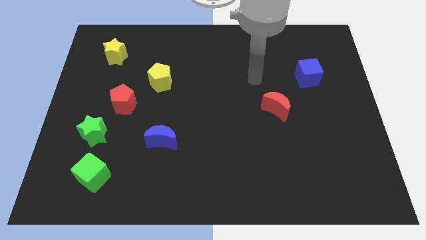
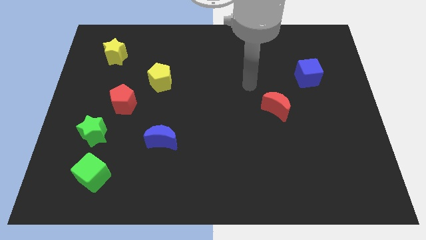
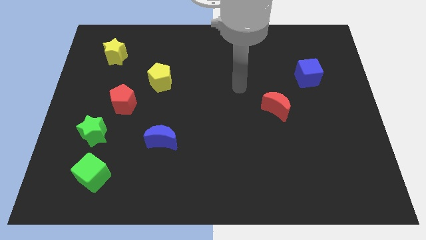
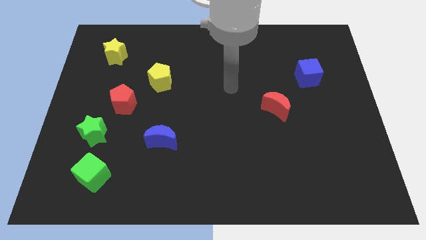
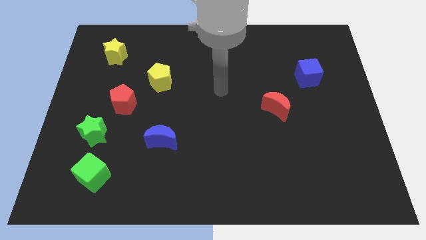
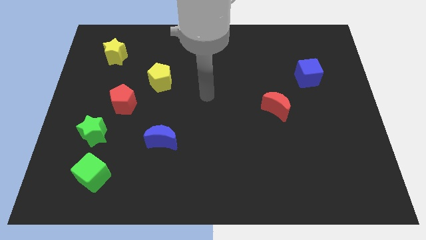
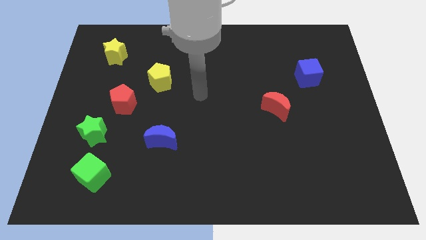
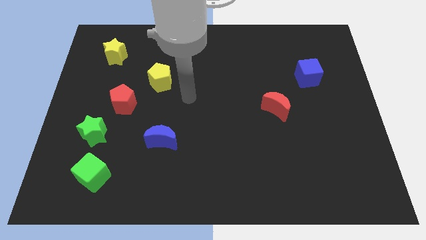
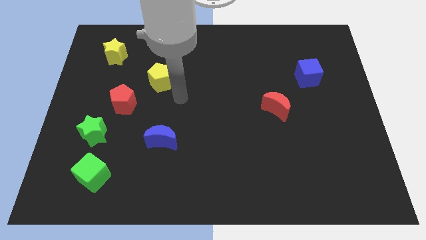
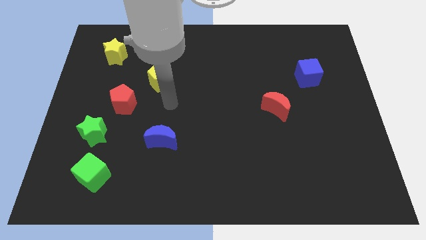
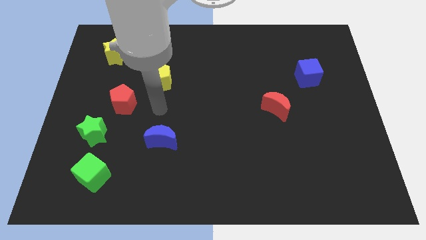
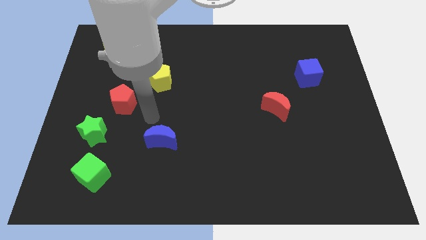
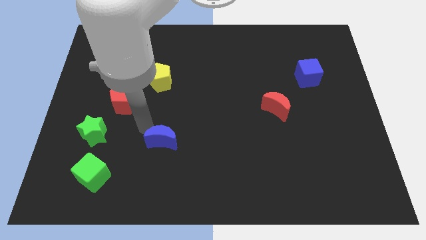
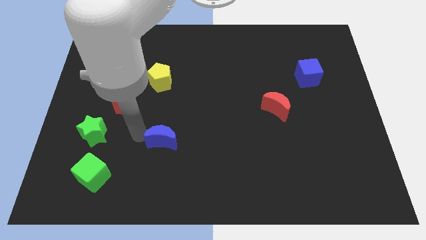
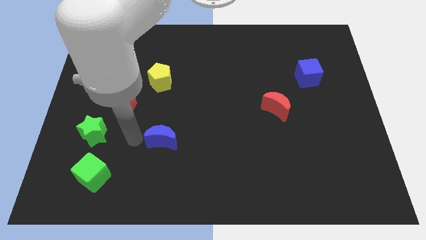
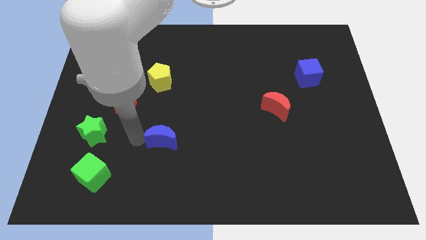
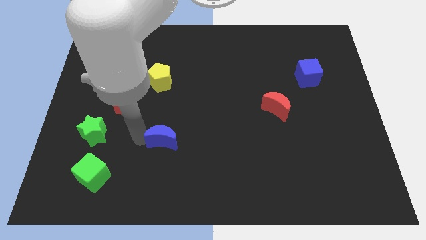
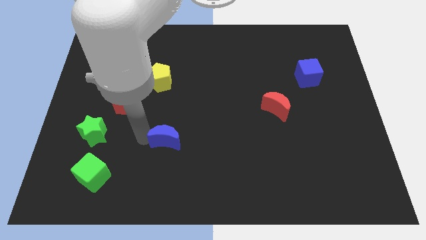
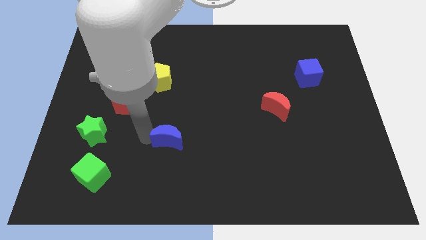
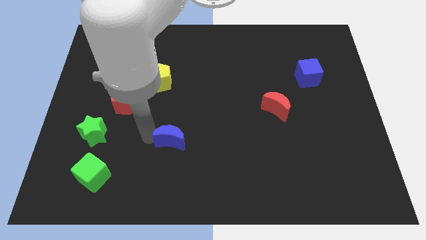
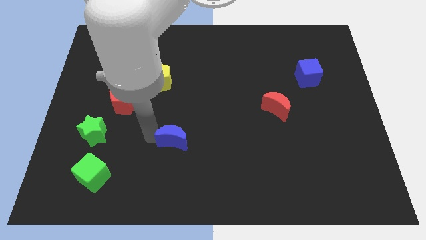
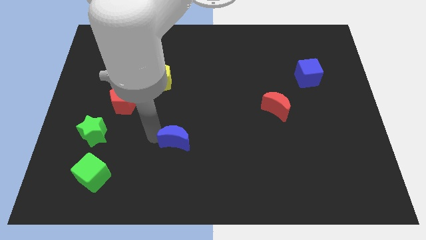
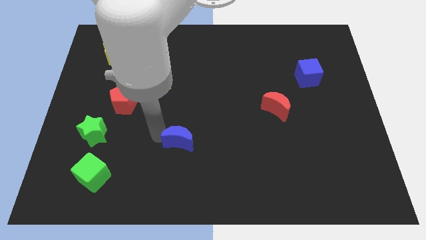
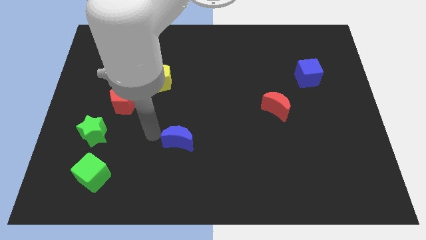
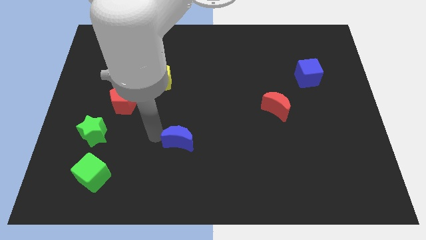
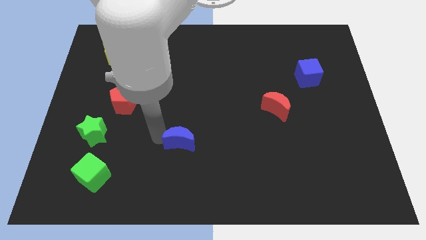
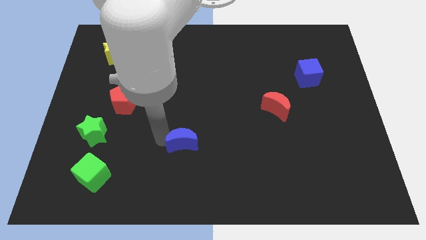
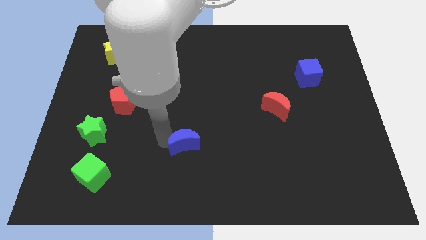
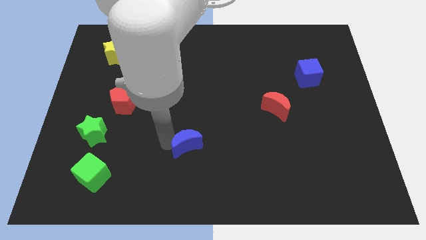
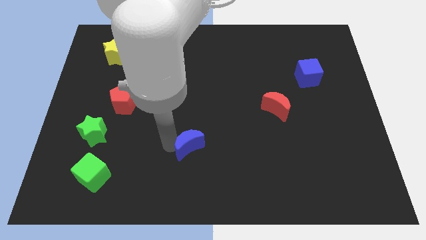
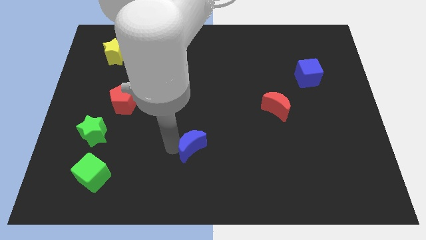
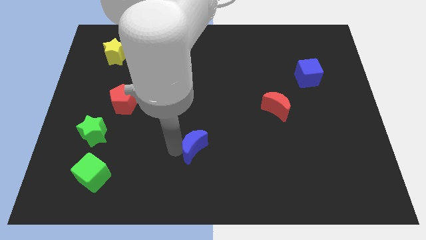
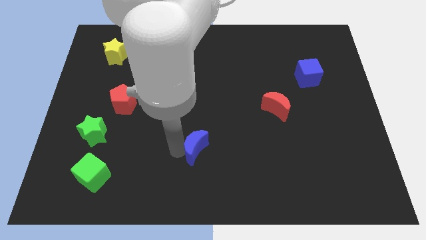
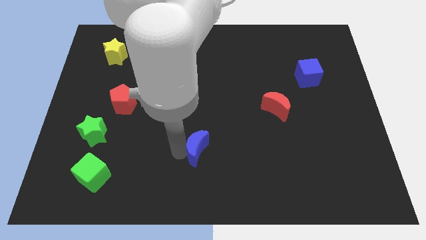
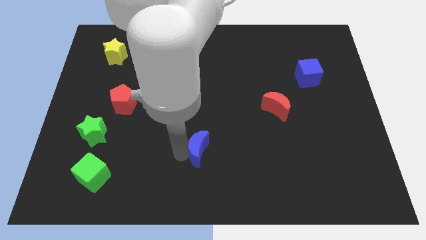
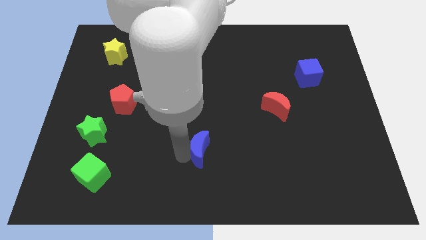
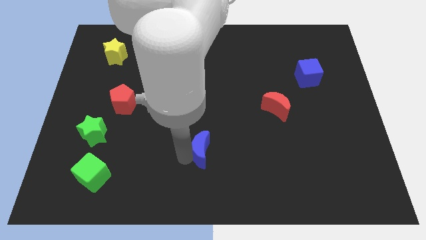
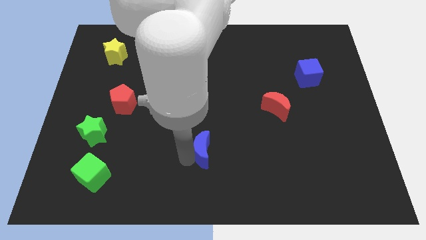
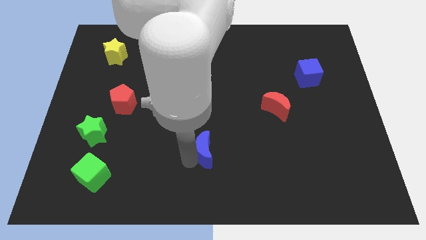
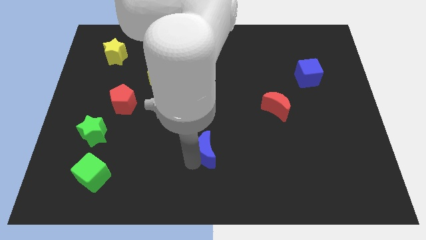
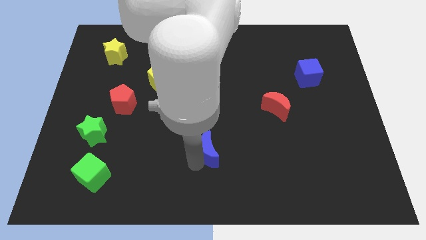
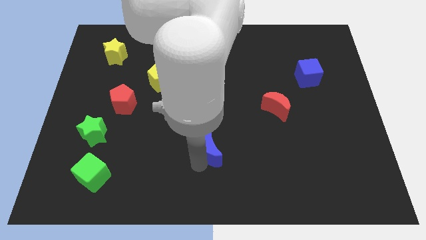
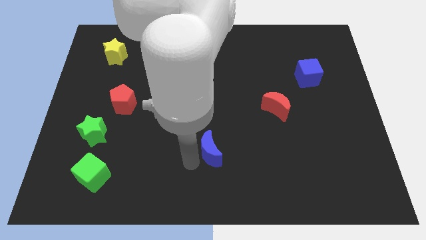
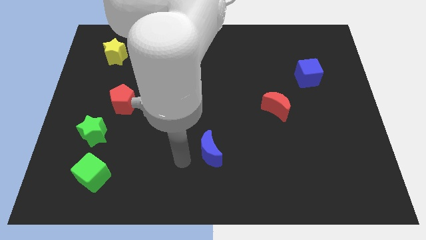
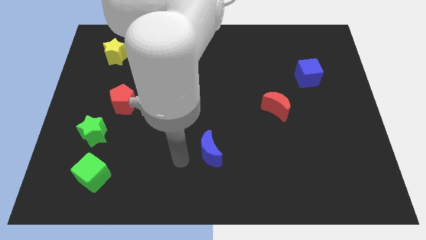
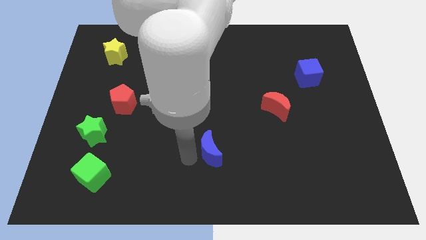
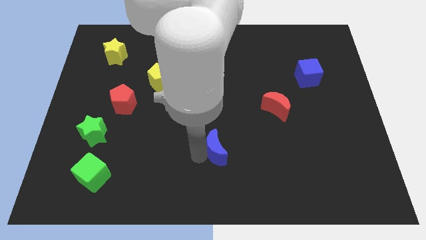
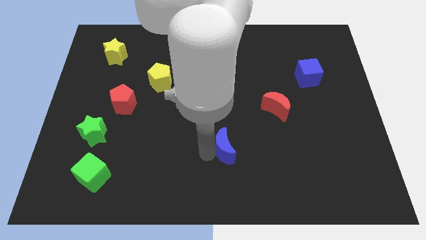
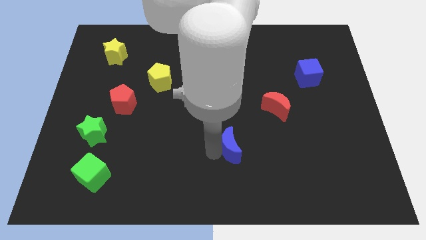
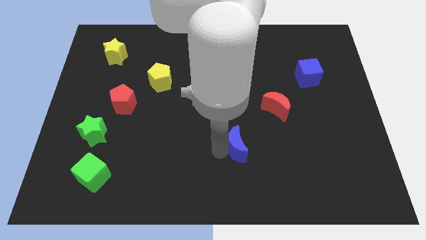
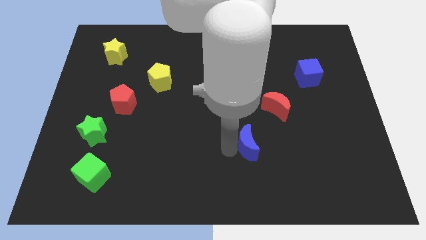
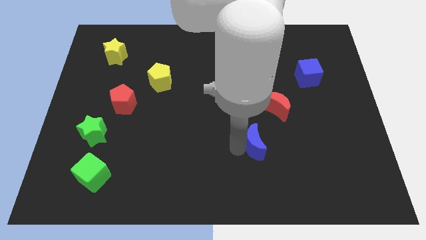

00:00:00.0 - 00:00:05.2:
push the blue moon right

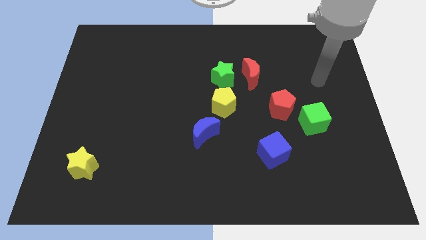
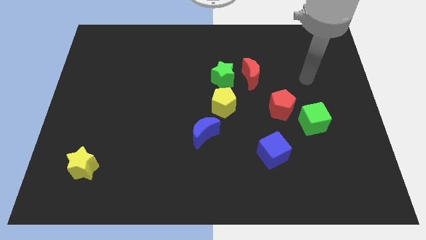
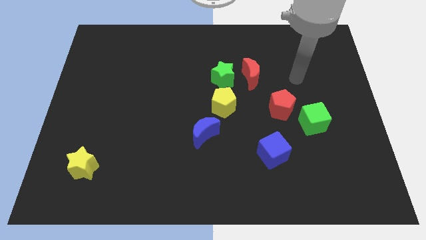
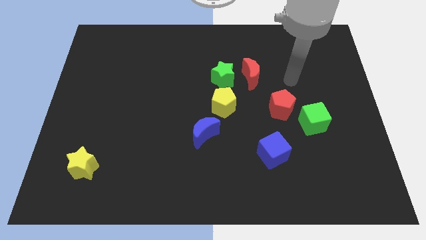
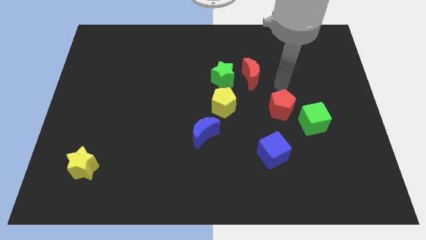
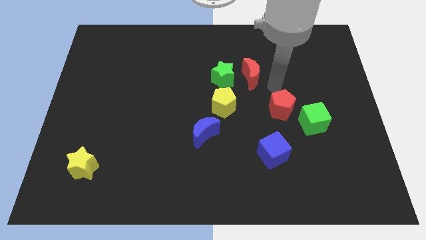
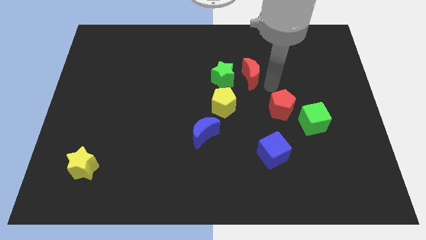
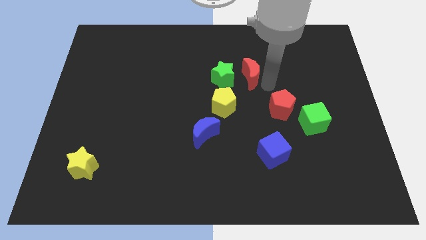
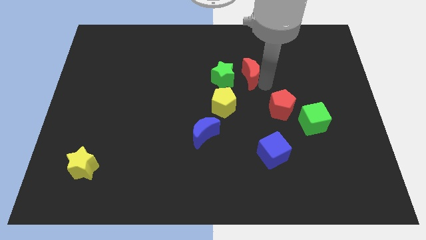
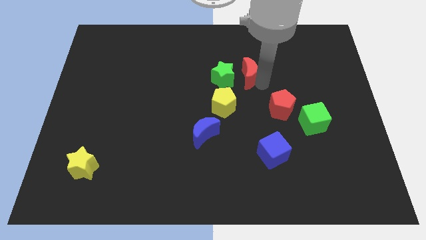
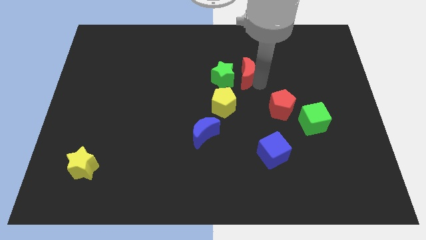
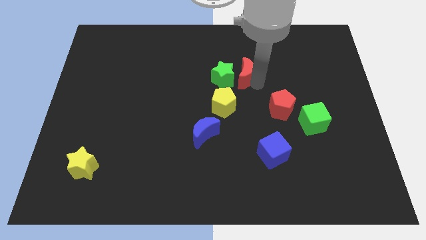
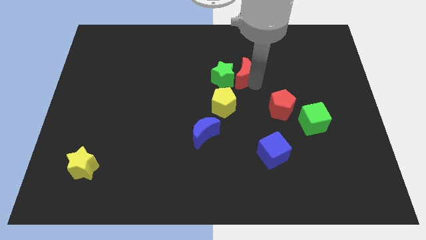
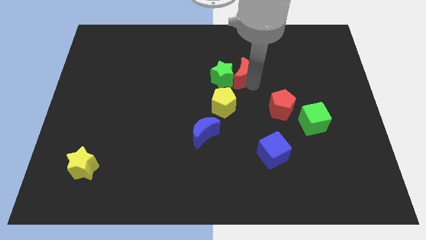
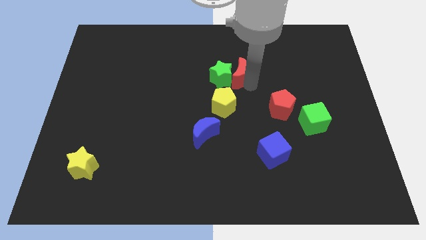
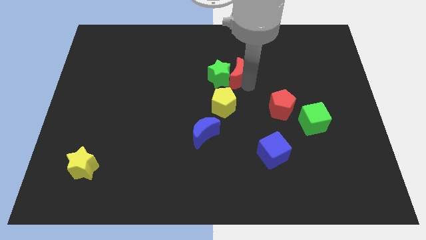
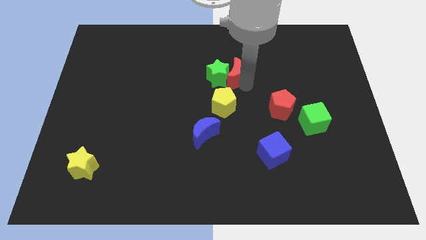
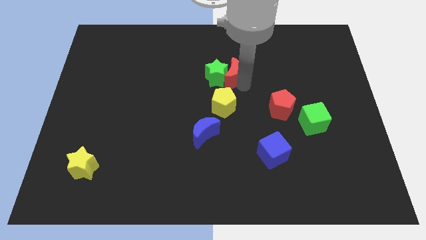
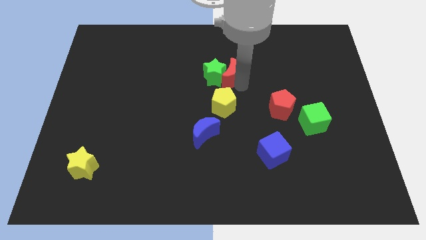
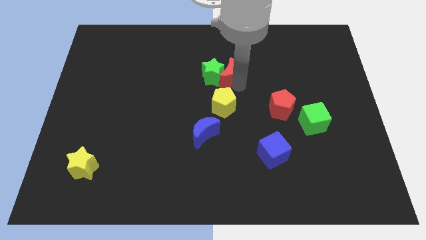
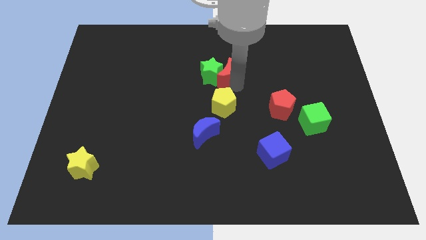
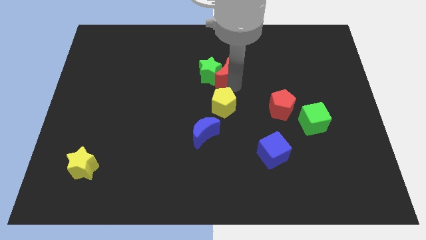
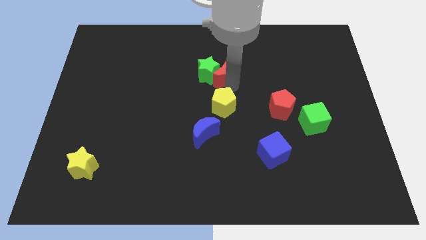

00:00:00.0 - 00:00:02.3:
slightly slide the red moon left

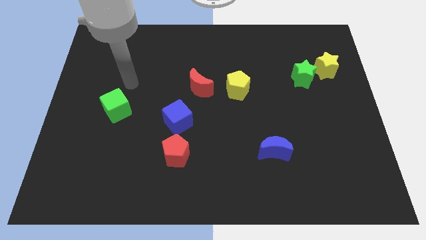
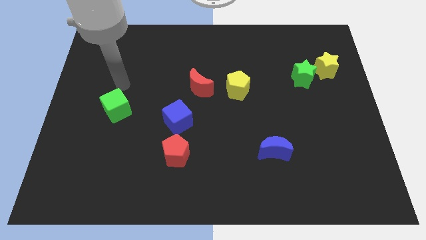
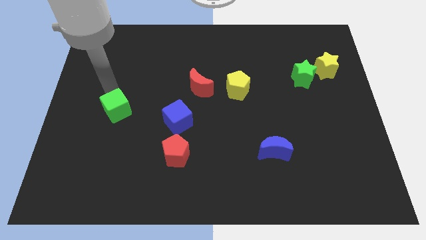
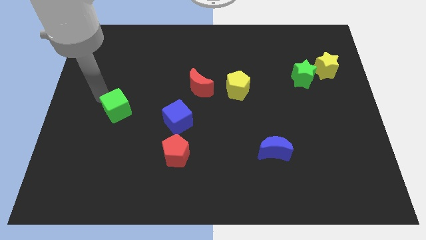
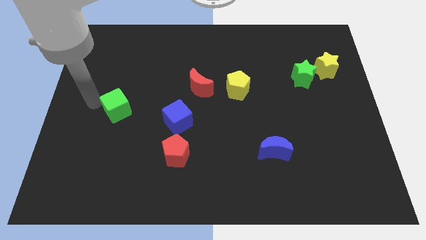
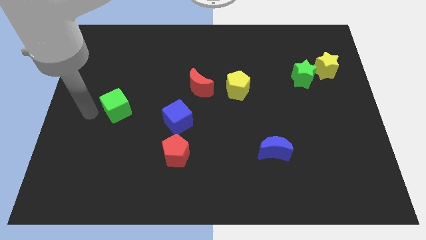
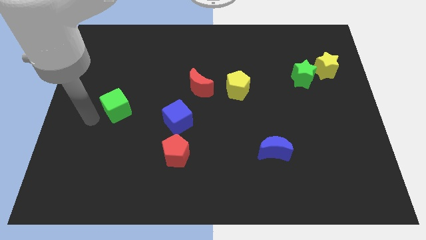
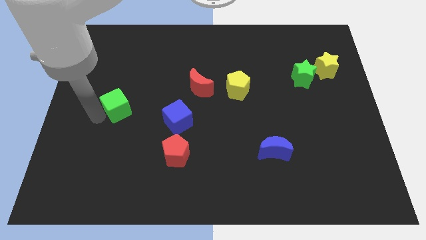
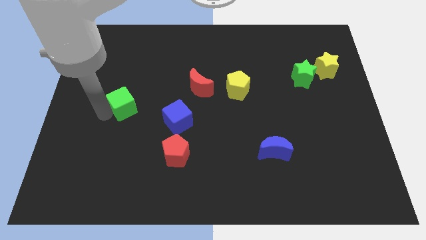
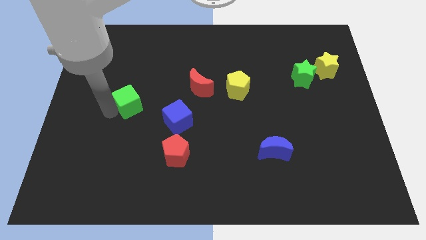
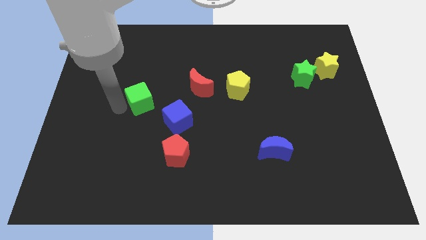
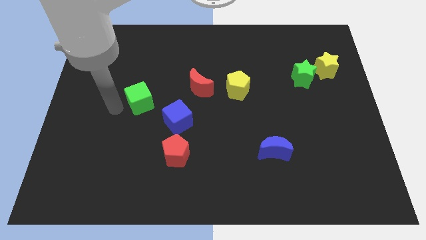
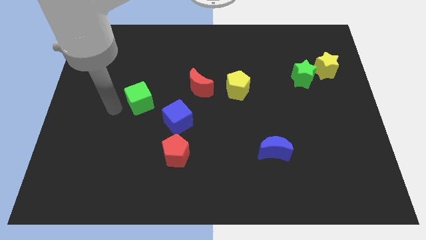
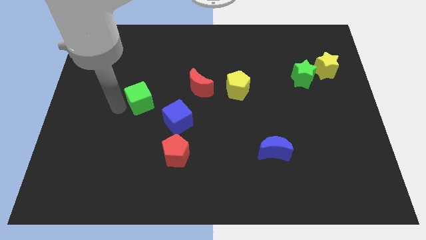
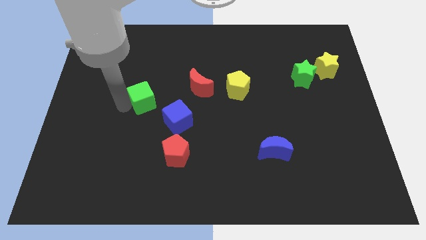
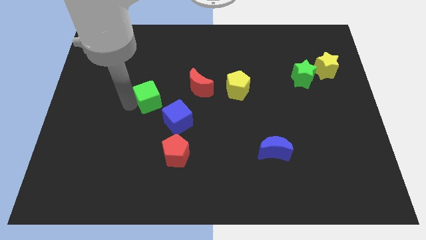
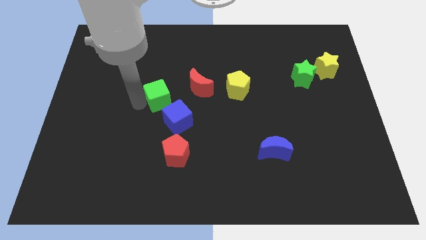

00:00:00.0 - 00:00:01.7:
slide the green cube upwards and to the right diagonally slightly
